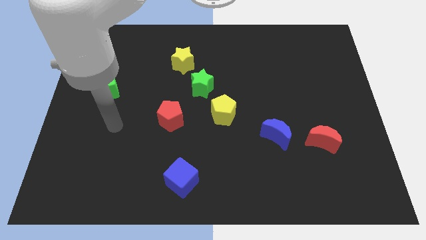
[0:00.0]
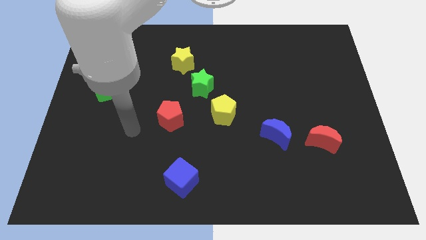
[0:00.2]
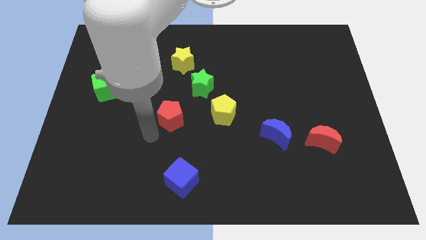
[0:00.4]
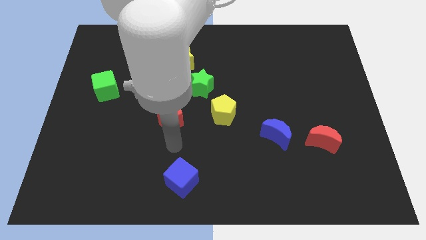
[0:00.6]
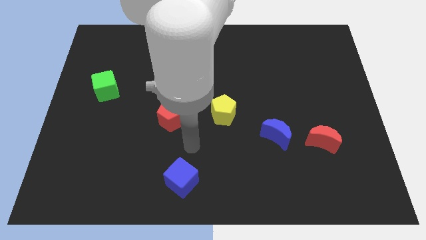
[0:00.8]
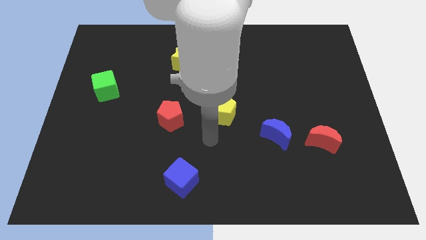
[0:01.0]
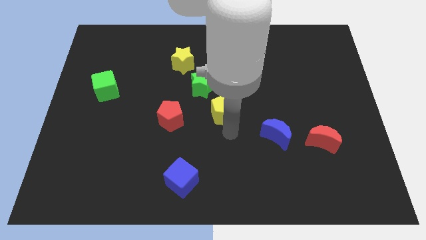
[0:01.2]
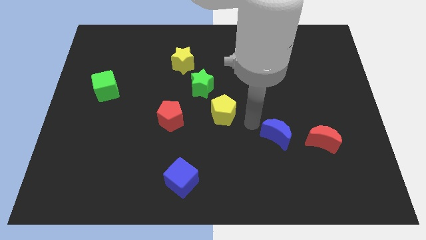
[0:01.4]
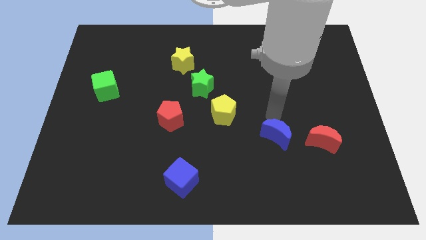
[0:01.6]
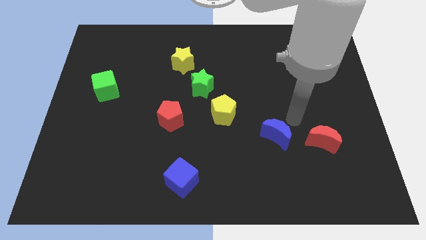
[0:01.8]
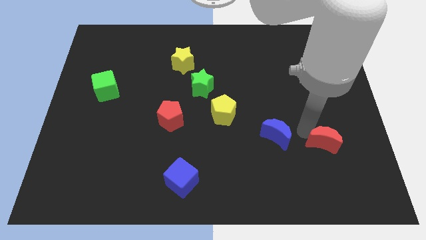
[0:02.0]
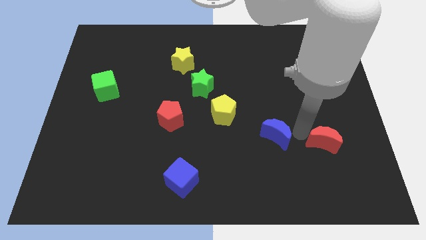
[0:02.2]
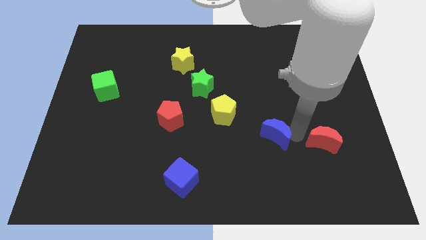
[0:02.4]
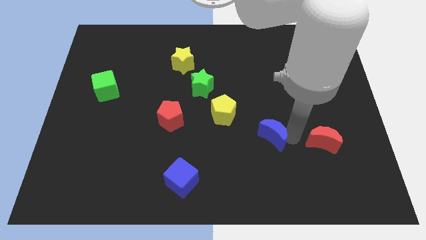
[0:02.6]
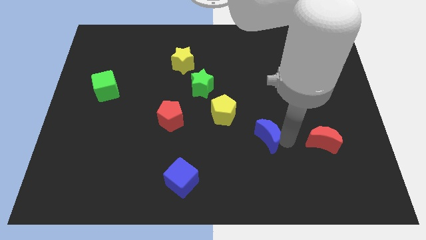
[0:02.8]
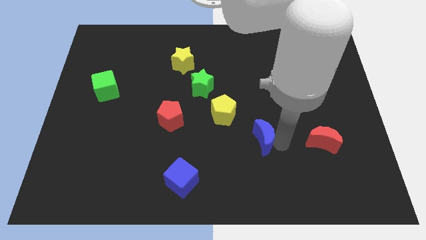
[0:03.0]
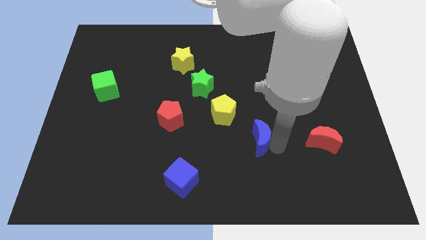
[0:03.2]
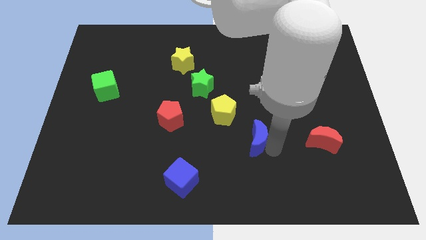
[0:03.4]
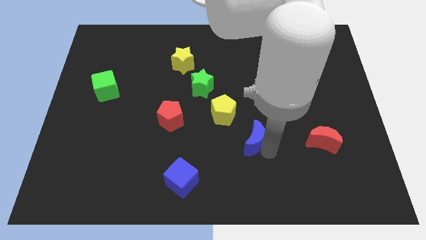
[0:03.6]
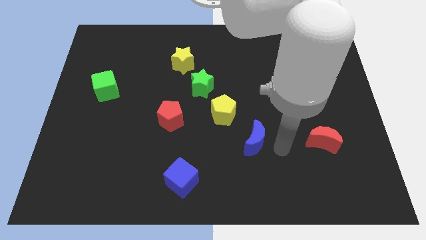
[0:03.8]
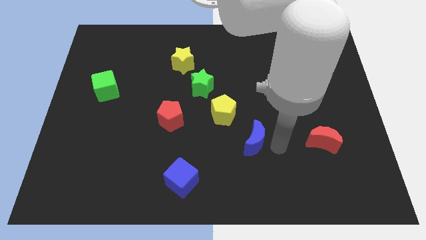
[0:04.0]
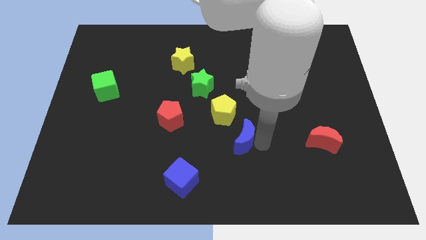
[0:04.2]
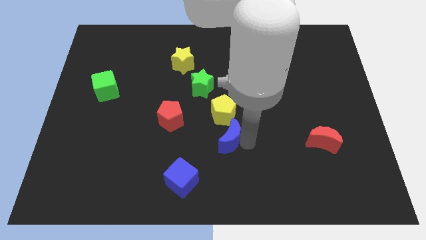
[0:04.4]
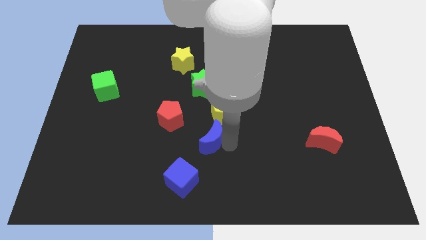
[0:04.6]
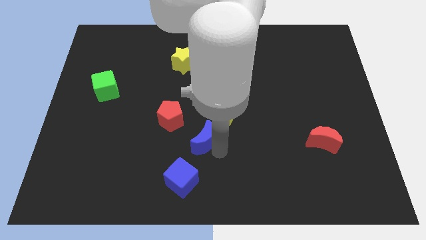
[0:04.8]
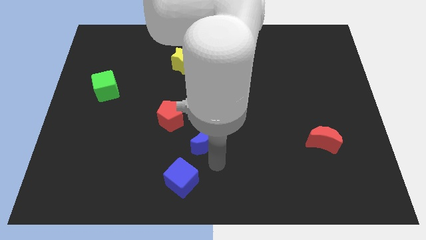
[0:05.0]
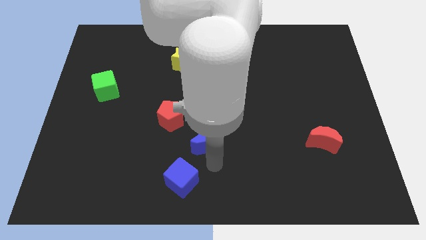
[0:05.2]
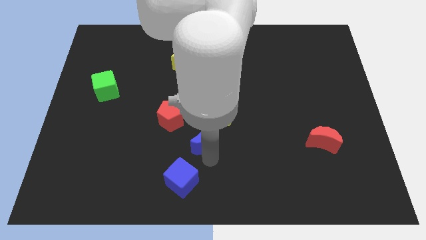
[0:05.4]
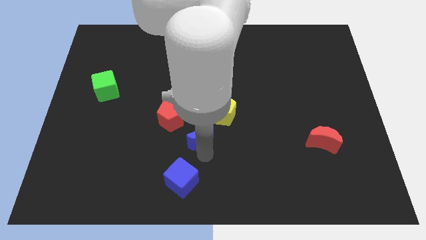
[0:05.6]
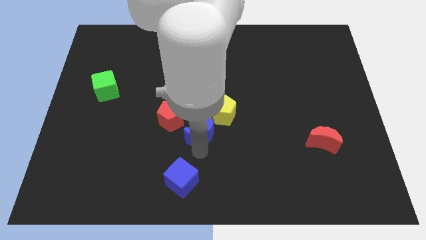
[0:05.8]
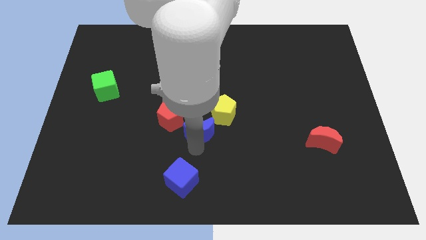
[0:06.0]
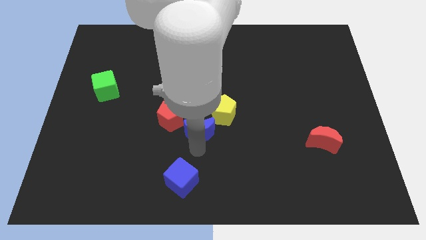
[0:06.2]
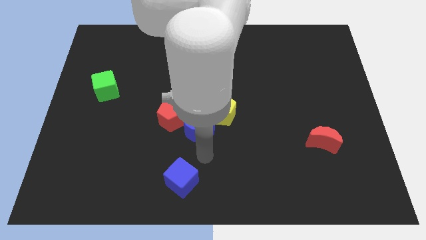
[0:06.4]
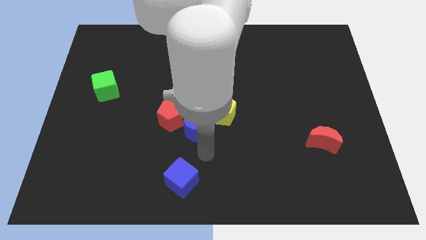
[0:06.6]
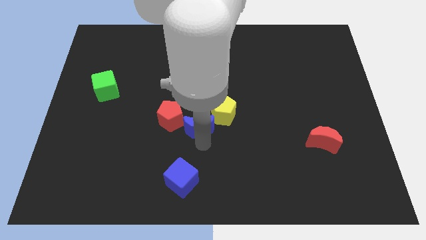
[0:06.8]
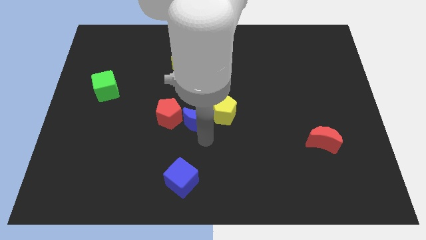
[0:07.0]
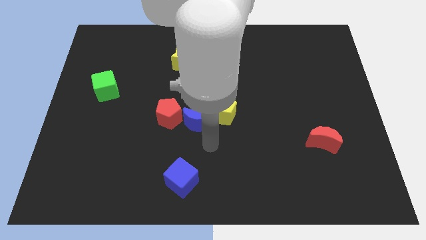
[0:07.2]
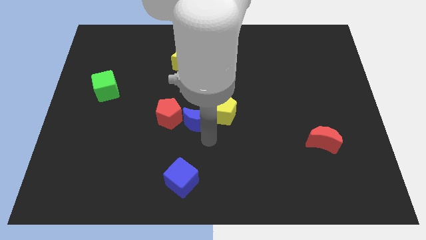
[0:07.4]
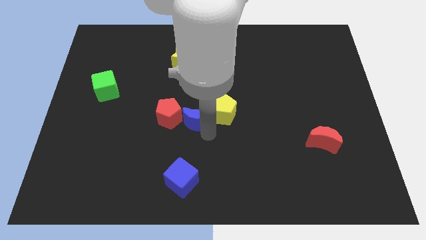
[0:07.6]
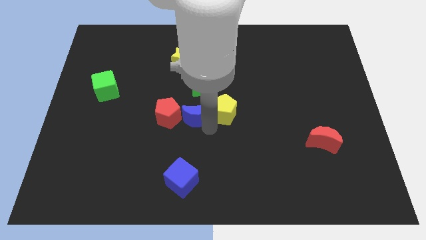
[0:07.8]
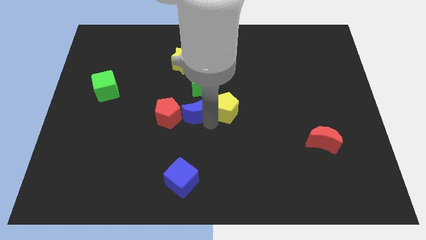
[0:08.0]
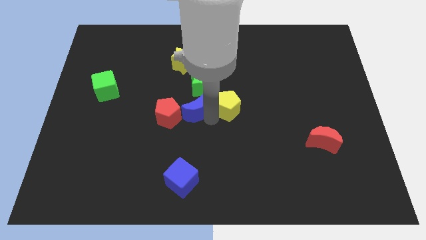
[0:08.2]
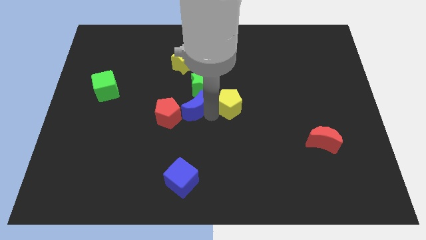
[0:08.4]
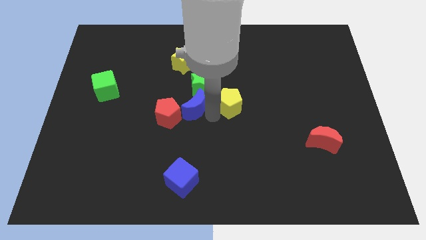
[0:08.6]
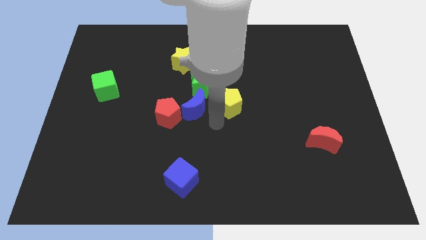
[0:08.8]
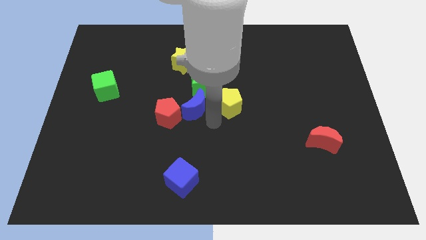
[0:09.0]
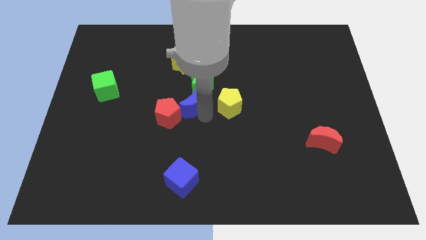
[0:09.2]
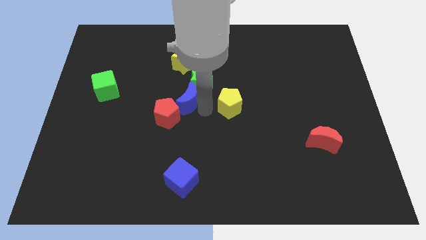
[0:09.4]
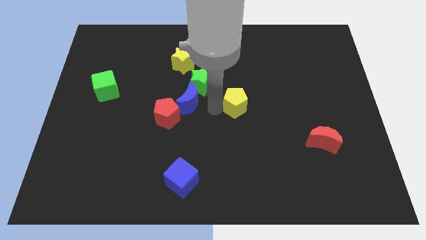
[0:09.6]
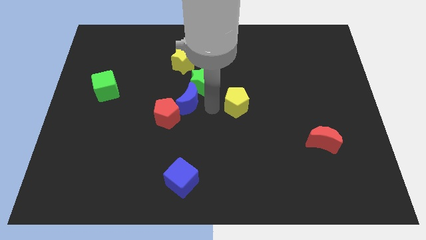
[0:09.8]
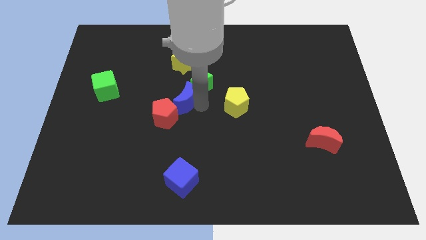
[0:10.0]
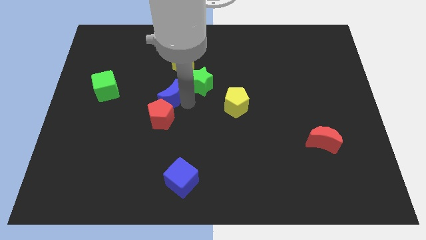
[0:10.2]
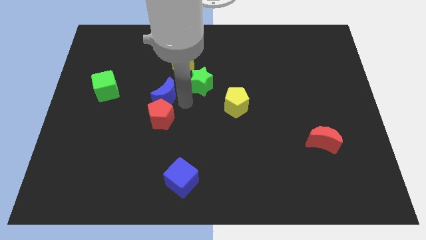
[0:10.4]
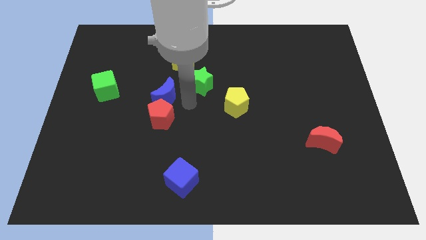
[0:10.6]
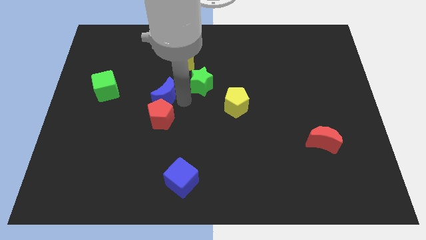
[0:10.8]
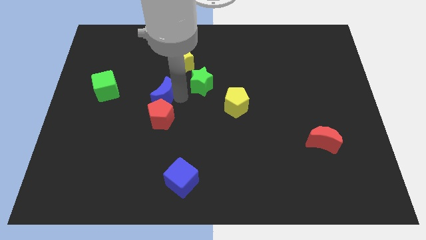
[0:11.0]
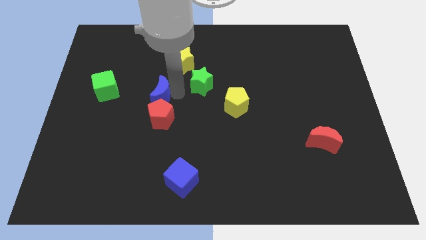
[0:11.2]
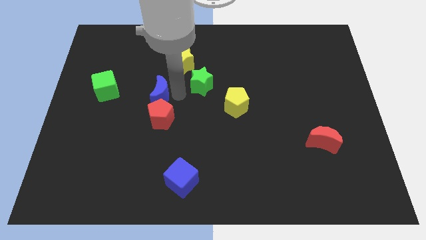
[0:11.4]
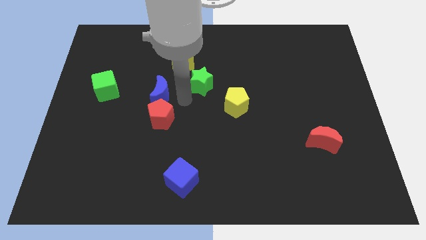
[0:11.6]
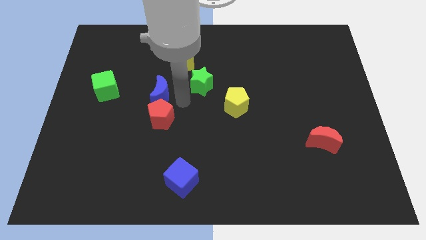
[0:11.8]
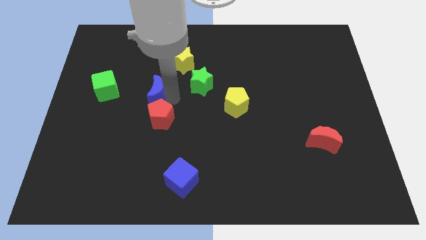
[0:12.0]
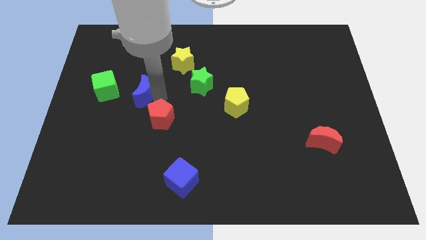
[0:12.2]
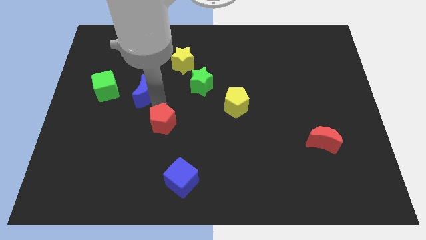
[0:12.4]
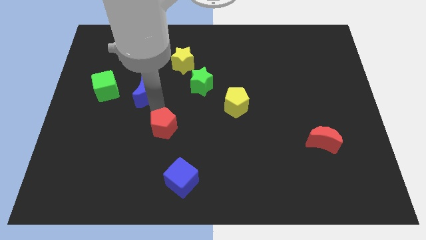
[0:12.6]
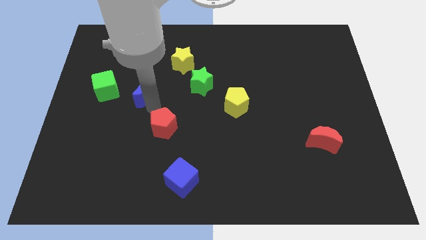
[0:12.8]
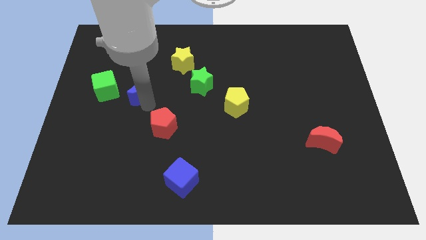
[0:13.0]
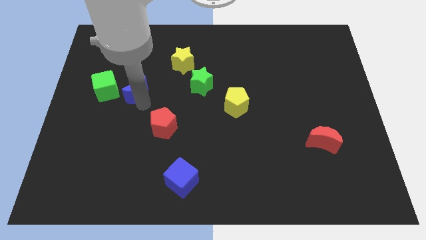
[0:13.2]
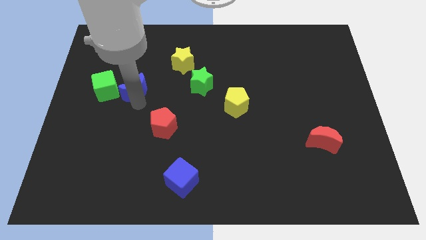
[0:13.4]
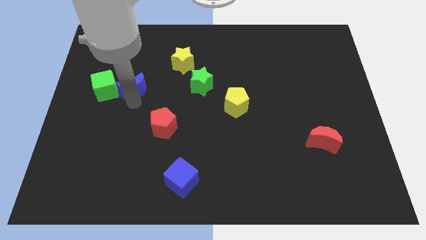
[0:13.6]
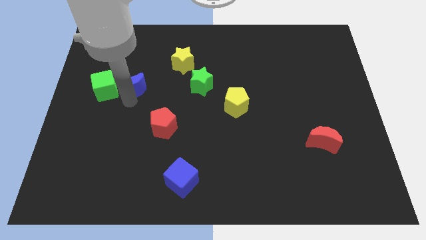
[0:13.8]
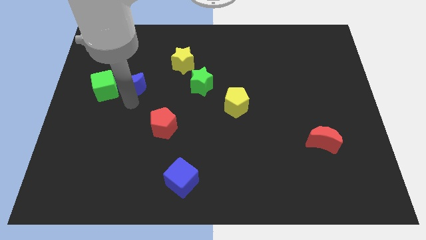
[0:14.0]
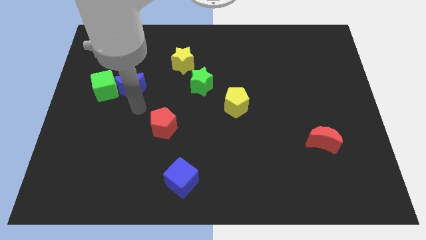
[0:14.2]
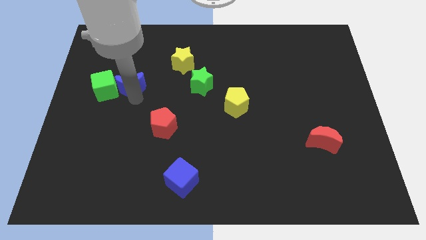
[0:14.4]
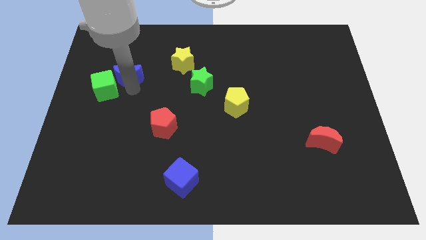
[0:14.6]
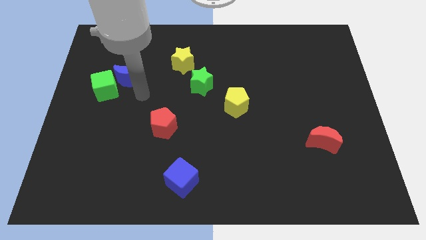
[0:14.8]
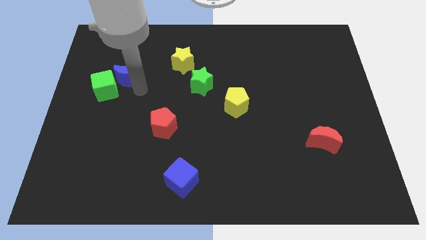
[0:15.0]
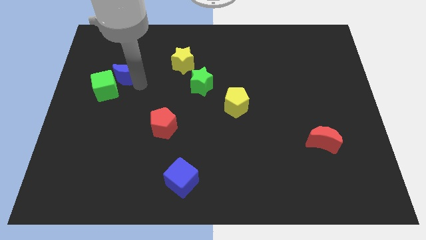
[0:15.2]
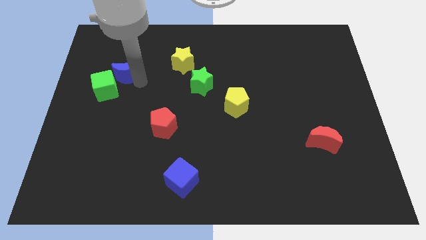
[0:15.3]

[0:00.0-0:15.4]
put the blue moon above the green cube
